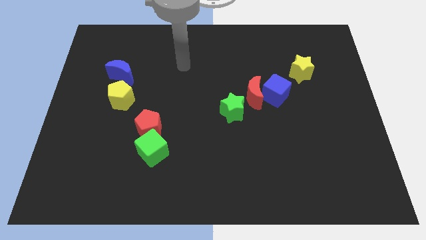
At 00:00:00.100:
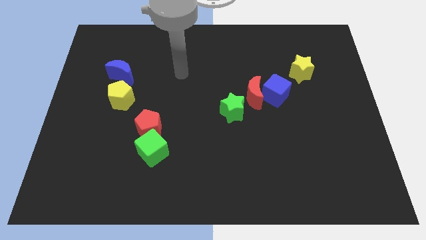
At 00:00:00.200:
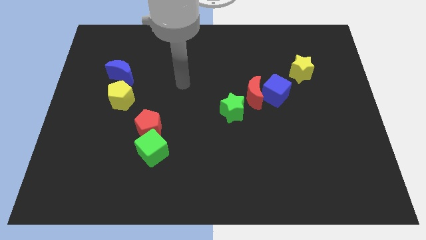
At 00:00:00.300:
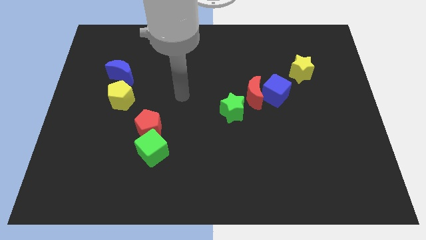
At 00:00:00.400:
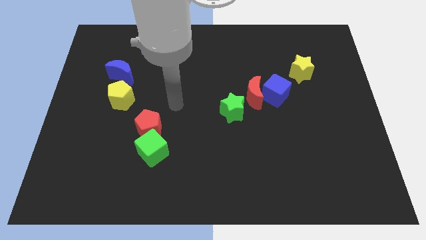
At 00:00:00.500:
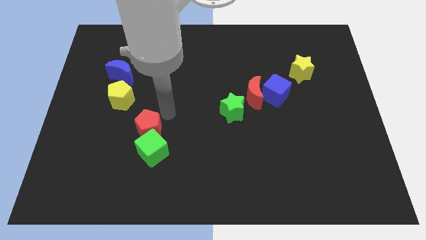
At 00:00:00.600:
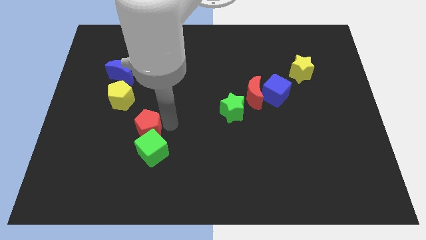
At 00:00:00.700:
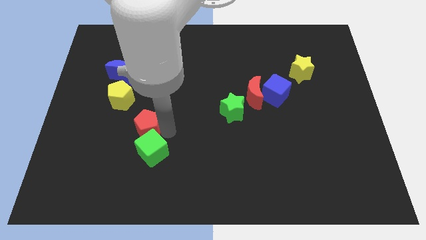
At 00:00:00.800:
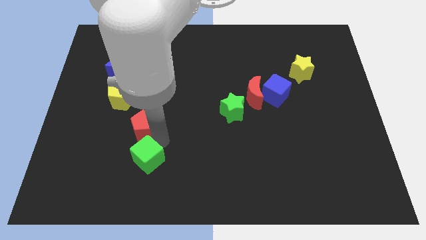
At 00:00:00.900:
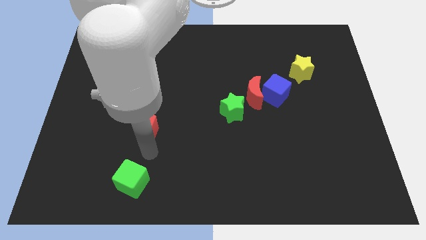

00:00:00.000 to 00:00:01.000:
pull the red pentagon apart from the green cube

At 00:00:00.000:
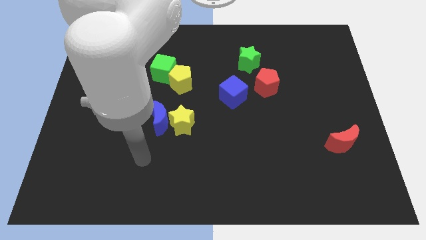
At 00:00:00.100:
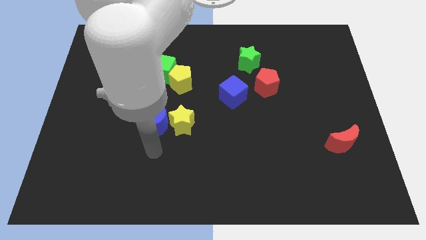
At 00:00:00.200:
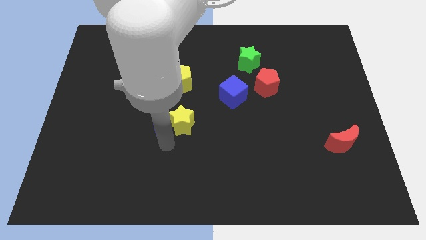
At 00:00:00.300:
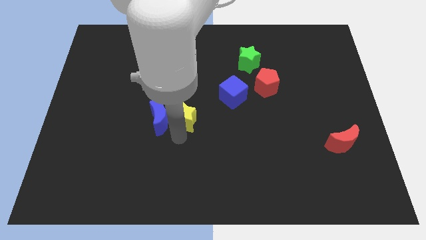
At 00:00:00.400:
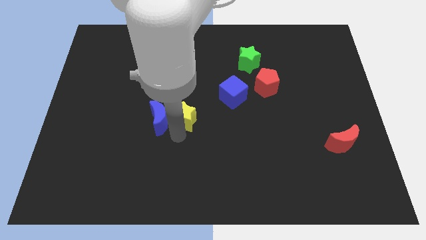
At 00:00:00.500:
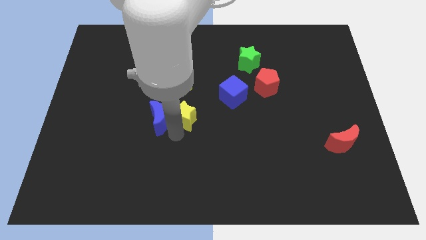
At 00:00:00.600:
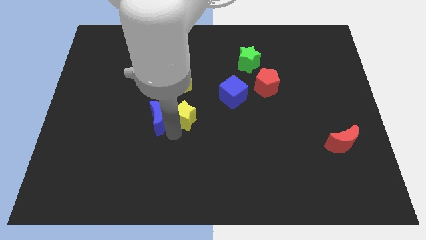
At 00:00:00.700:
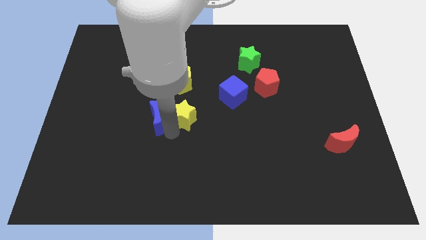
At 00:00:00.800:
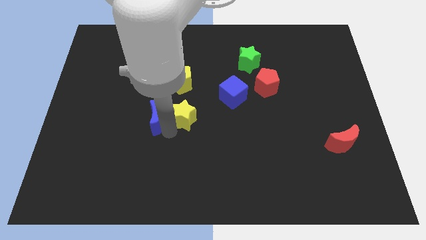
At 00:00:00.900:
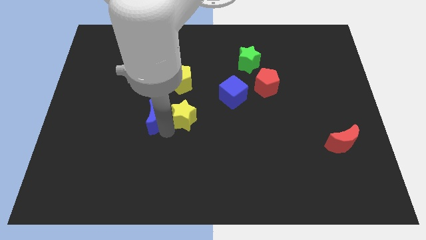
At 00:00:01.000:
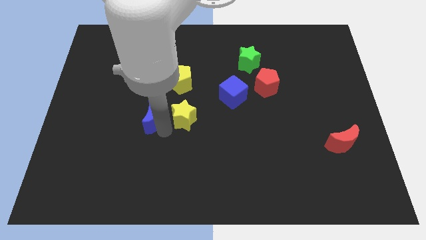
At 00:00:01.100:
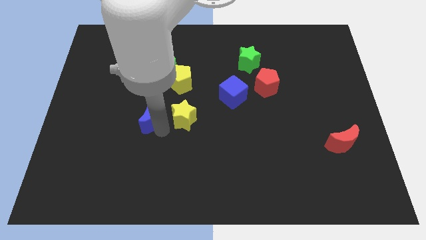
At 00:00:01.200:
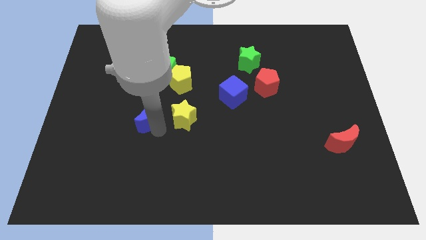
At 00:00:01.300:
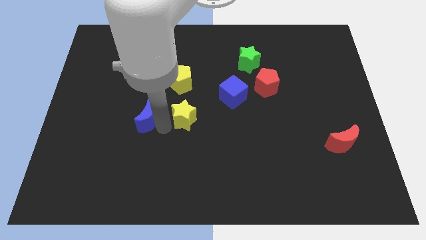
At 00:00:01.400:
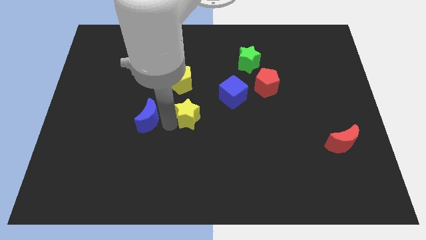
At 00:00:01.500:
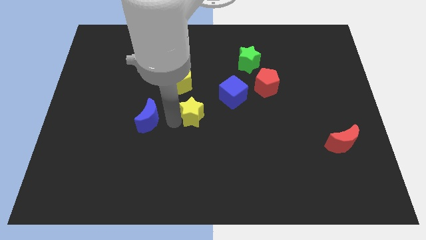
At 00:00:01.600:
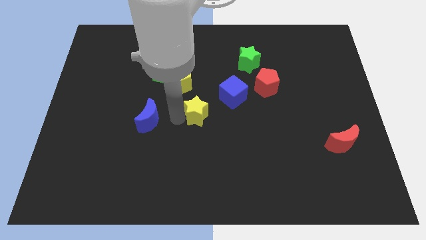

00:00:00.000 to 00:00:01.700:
move the blue moon away from the yellow star

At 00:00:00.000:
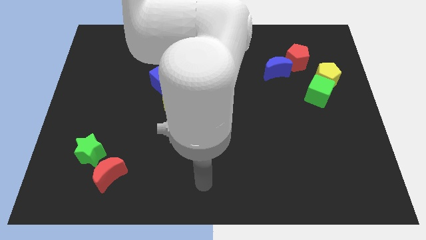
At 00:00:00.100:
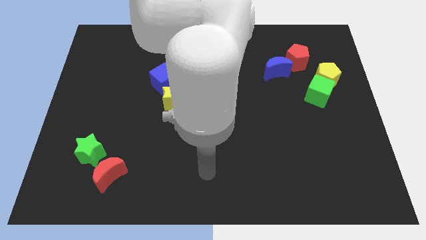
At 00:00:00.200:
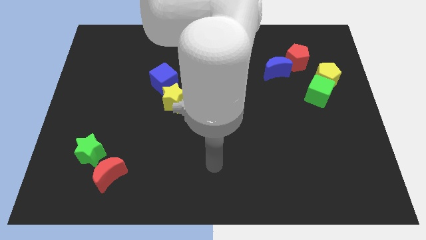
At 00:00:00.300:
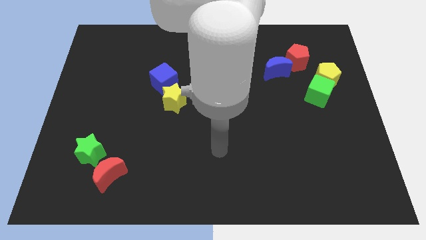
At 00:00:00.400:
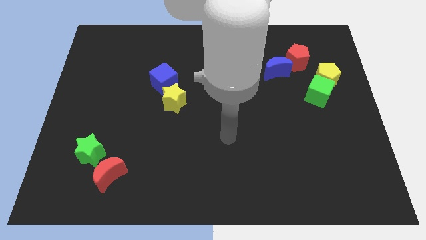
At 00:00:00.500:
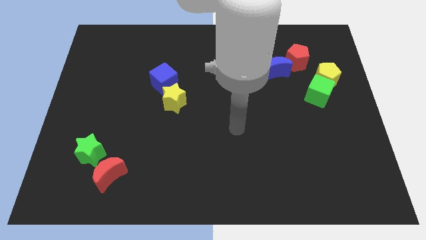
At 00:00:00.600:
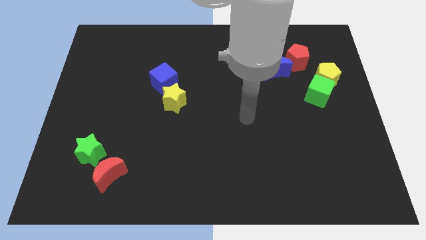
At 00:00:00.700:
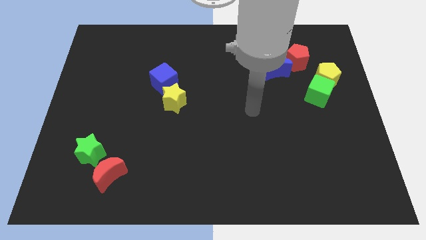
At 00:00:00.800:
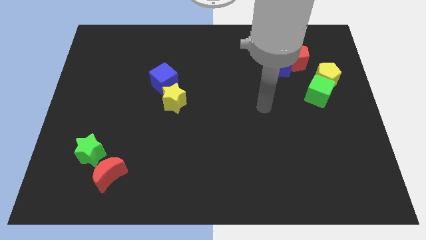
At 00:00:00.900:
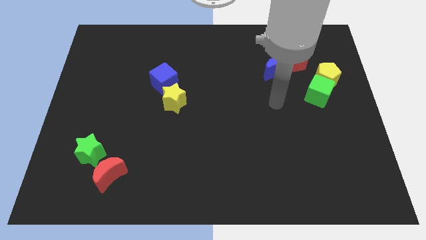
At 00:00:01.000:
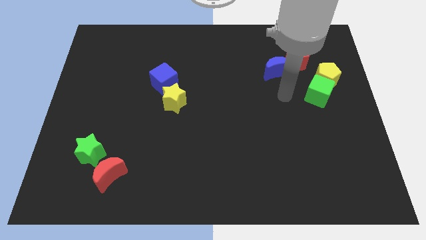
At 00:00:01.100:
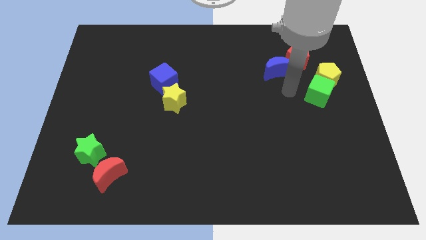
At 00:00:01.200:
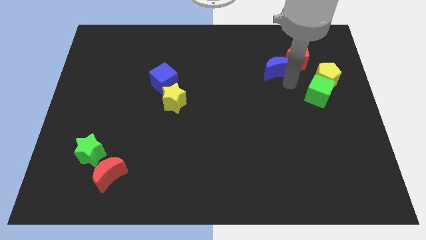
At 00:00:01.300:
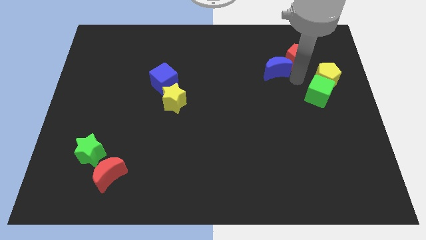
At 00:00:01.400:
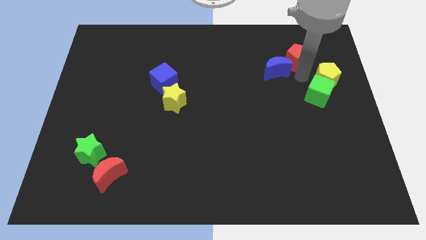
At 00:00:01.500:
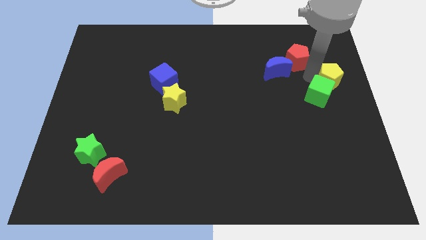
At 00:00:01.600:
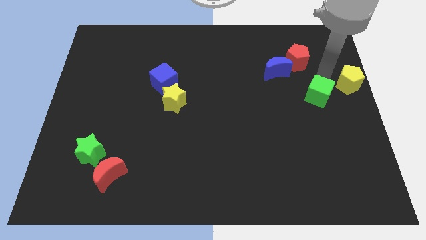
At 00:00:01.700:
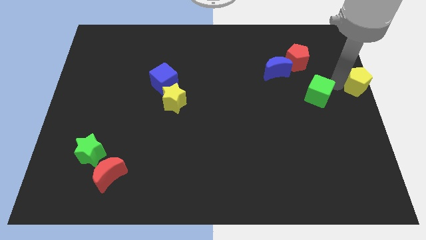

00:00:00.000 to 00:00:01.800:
separate the green cube from the yellow pentagon

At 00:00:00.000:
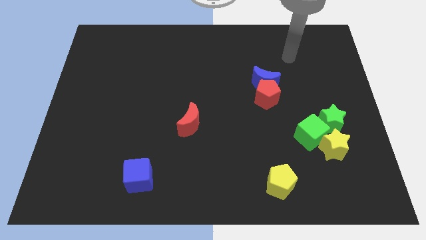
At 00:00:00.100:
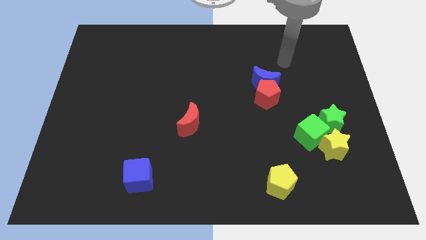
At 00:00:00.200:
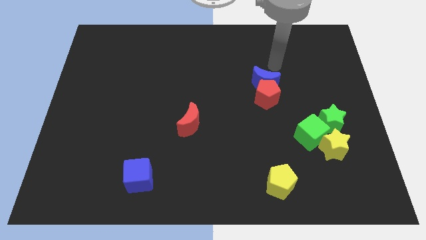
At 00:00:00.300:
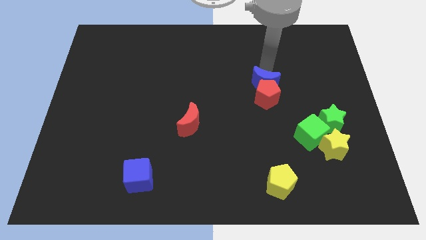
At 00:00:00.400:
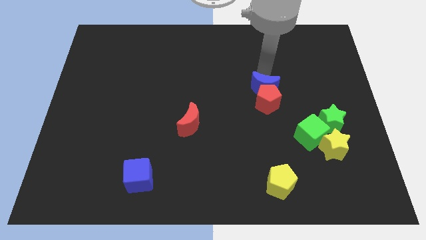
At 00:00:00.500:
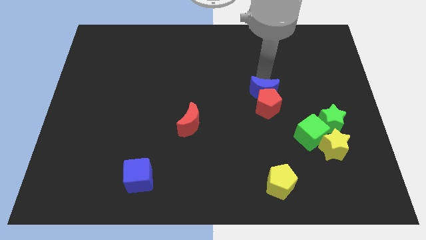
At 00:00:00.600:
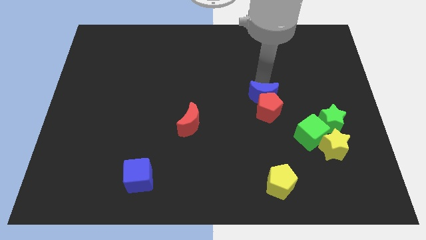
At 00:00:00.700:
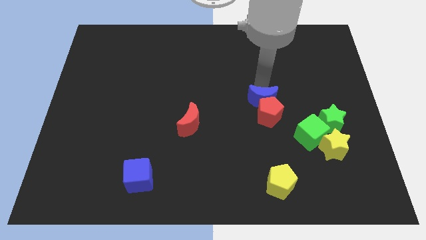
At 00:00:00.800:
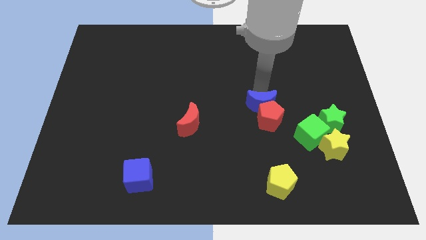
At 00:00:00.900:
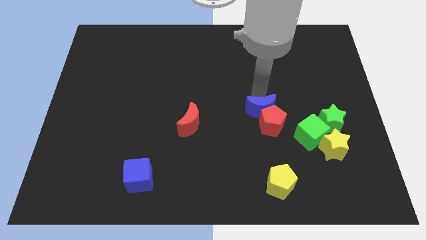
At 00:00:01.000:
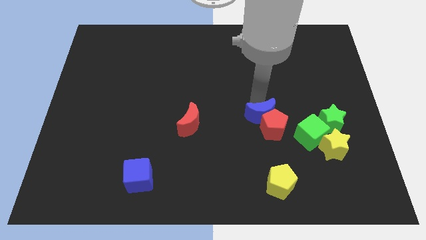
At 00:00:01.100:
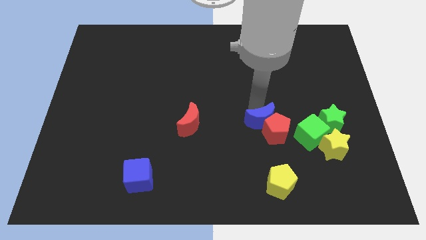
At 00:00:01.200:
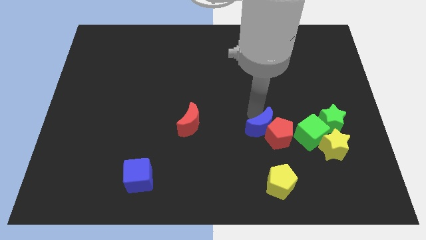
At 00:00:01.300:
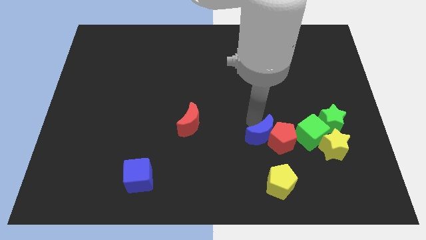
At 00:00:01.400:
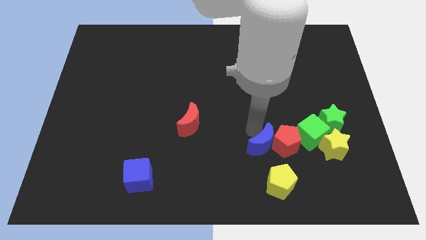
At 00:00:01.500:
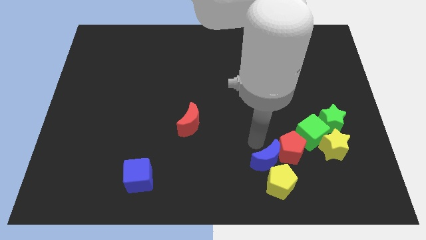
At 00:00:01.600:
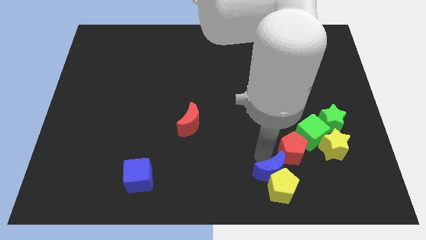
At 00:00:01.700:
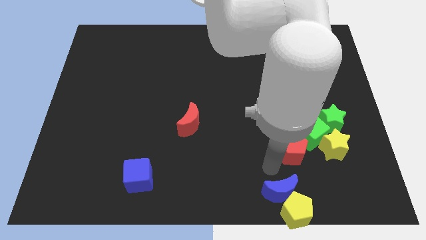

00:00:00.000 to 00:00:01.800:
pull the red pentagon apart from the blue moon

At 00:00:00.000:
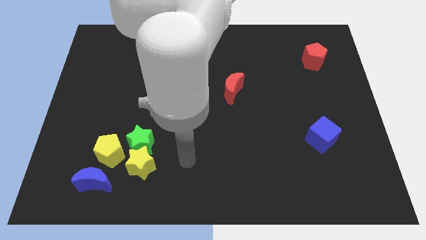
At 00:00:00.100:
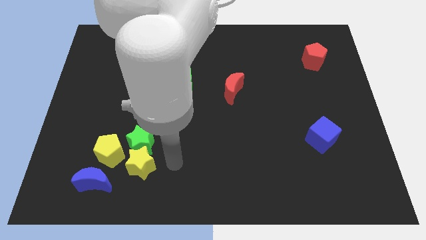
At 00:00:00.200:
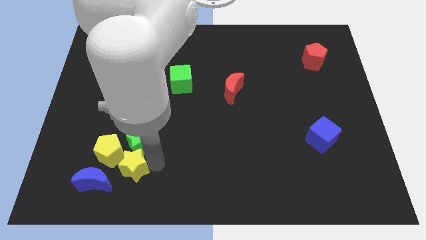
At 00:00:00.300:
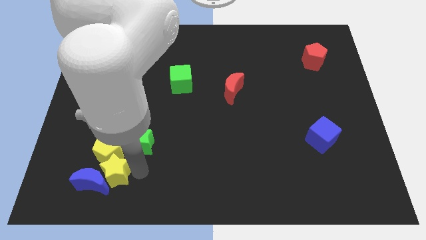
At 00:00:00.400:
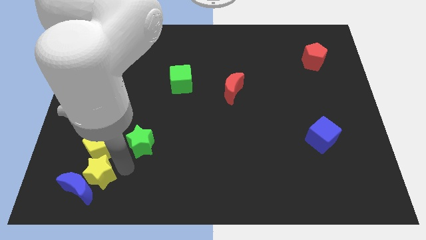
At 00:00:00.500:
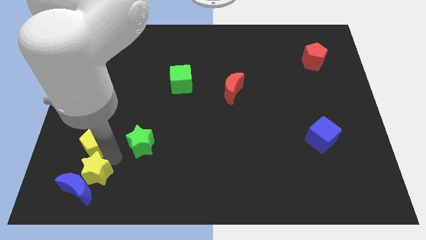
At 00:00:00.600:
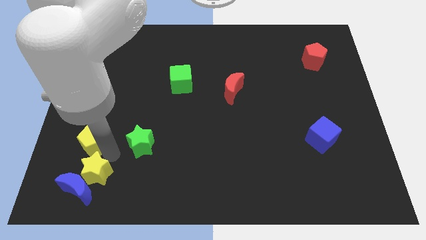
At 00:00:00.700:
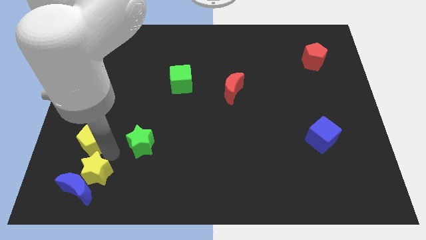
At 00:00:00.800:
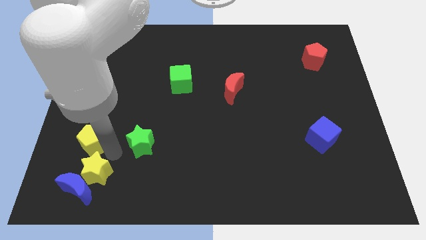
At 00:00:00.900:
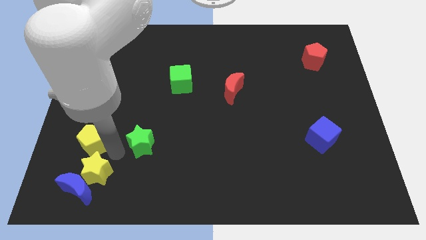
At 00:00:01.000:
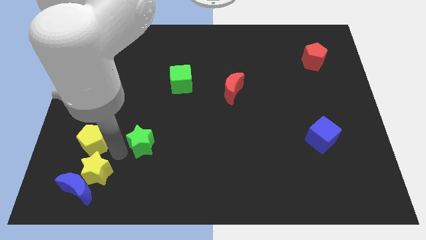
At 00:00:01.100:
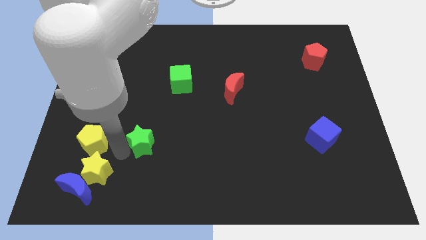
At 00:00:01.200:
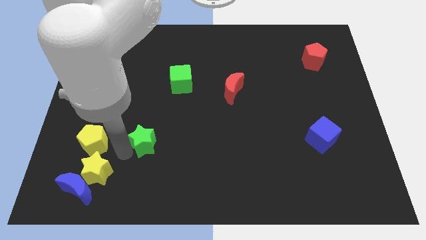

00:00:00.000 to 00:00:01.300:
pull the green star apart from the yellow star and yellow pentagon

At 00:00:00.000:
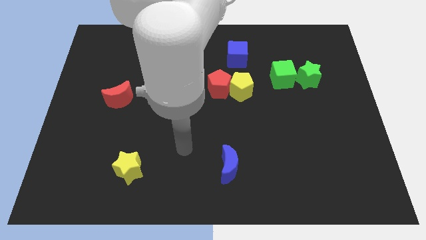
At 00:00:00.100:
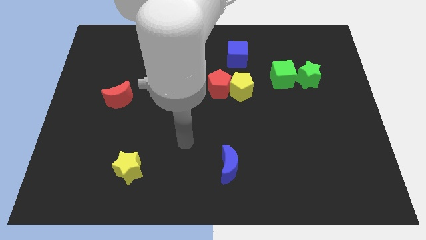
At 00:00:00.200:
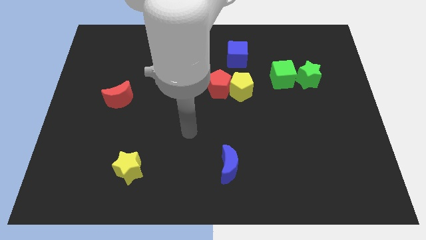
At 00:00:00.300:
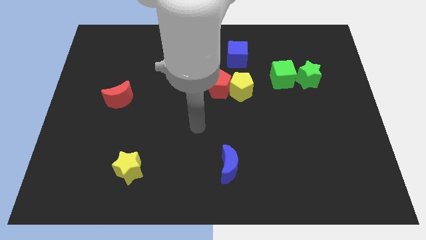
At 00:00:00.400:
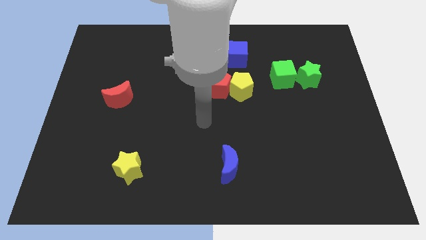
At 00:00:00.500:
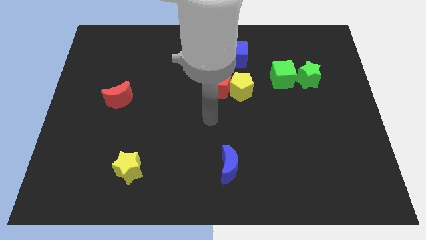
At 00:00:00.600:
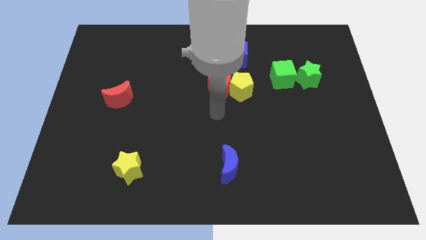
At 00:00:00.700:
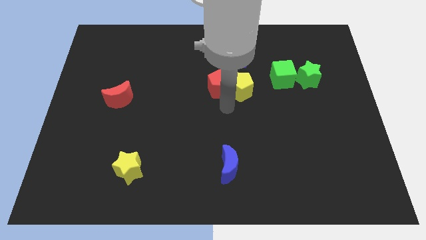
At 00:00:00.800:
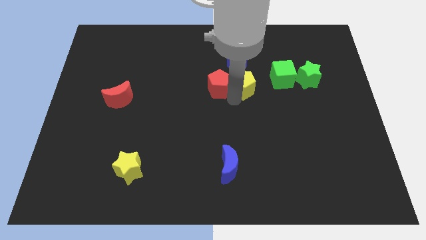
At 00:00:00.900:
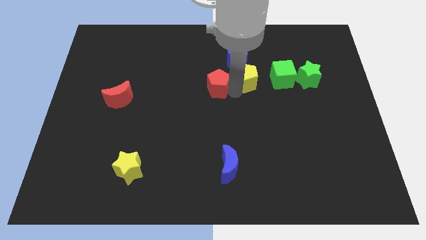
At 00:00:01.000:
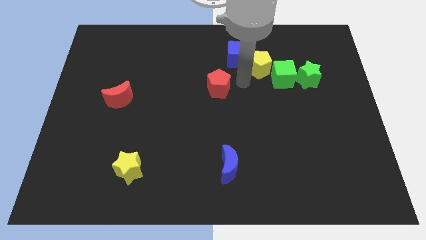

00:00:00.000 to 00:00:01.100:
move the red pentagon away from the yellow pentagon

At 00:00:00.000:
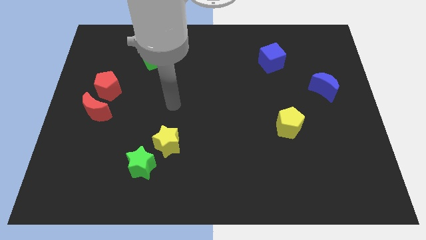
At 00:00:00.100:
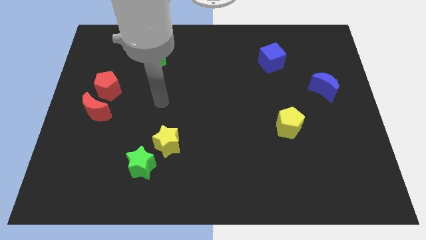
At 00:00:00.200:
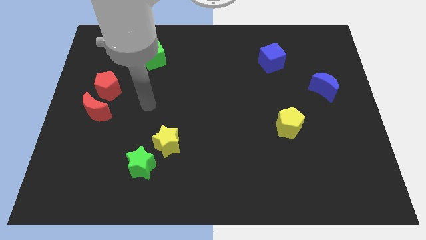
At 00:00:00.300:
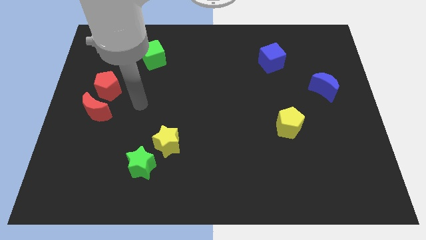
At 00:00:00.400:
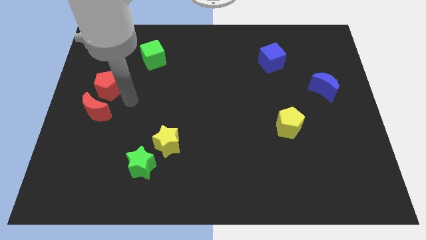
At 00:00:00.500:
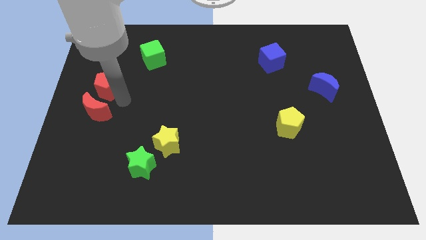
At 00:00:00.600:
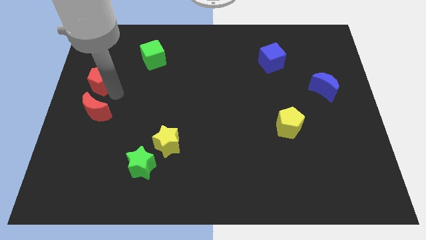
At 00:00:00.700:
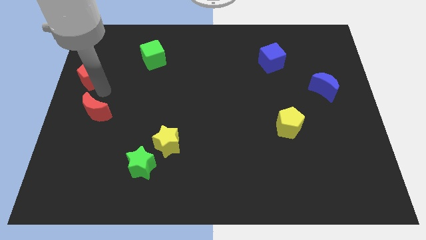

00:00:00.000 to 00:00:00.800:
pull the red moon apart from the red pentagon
